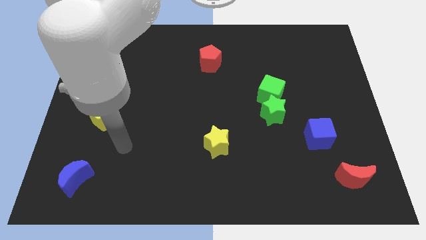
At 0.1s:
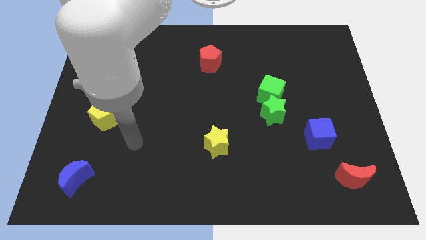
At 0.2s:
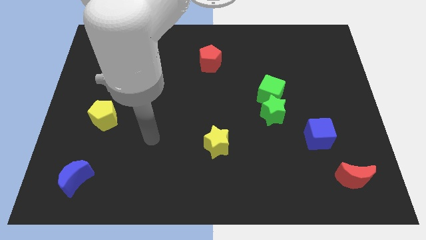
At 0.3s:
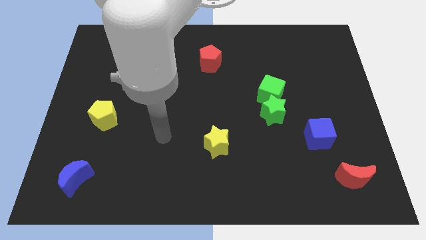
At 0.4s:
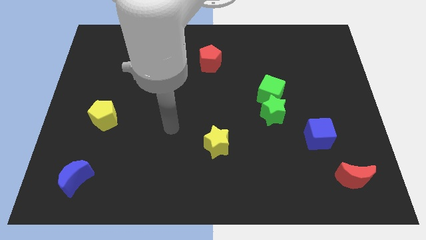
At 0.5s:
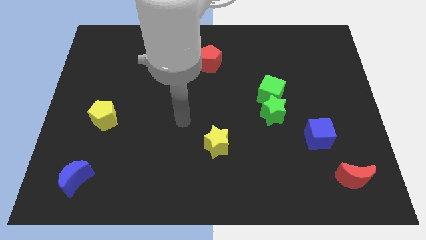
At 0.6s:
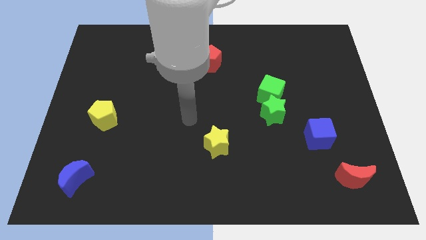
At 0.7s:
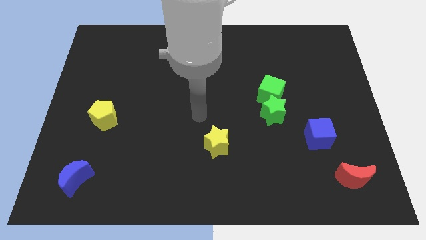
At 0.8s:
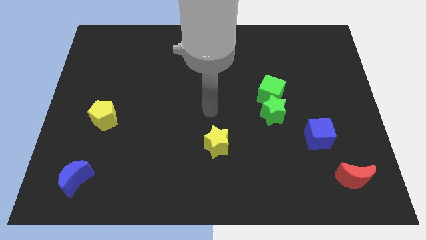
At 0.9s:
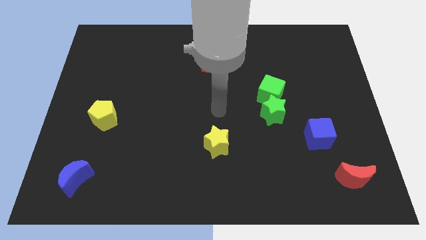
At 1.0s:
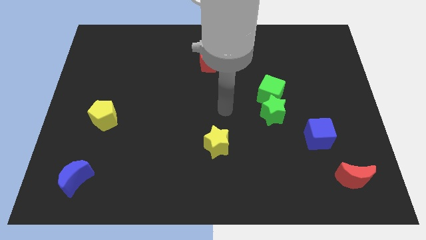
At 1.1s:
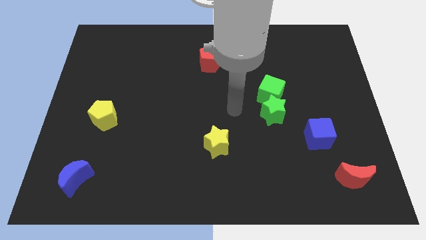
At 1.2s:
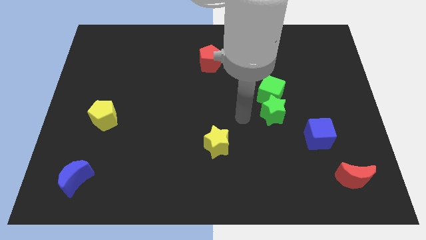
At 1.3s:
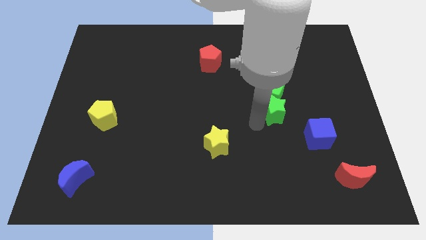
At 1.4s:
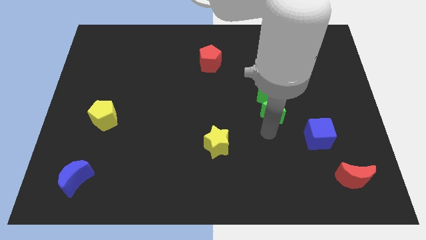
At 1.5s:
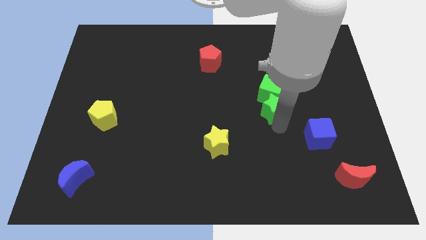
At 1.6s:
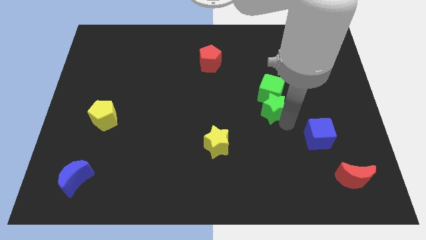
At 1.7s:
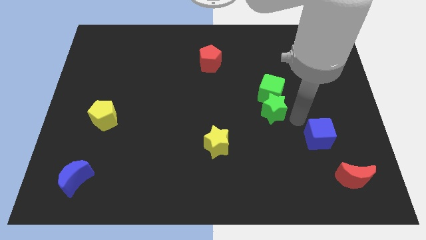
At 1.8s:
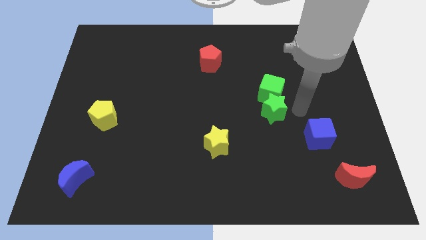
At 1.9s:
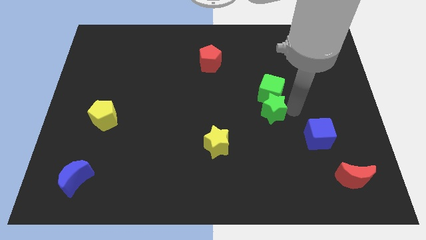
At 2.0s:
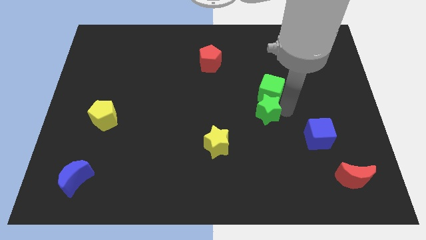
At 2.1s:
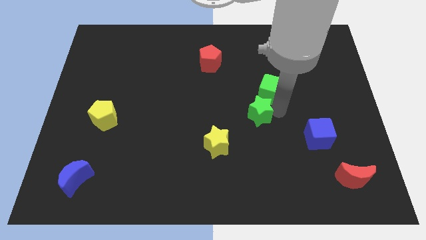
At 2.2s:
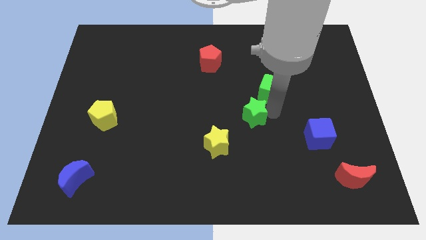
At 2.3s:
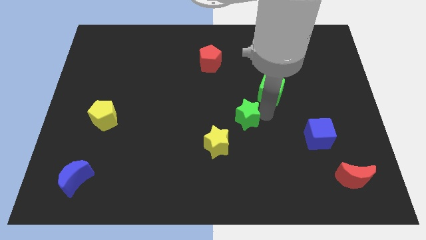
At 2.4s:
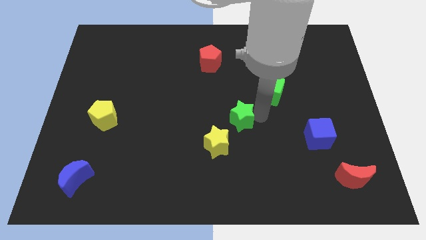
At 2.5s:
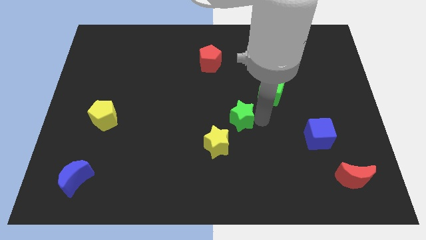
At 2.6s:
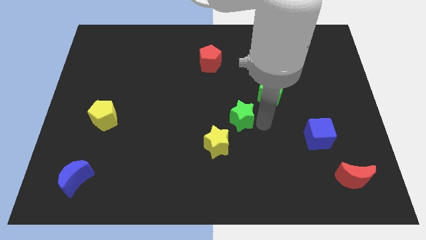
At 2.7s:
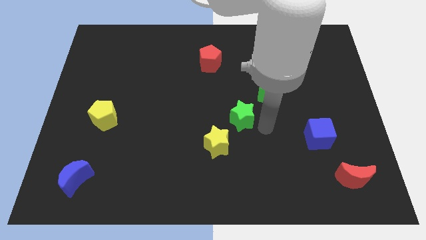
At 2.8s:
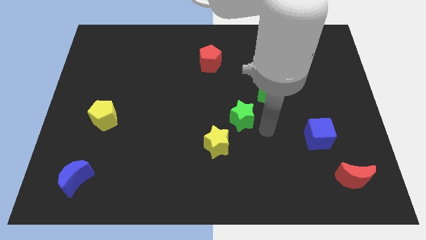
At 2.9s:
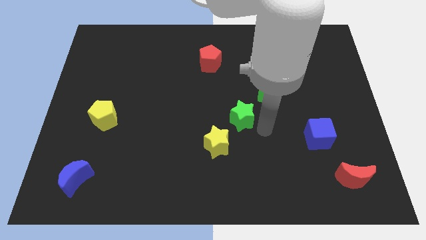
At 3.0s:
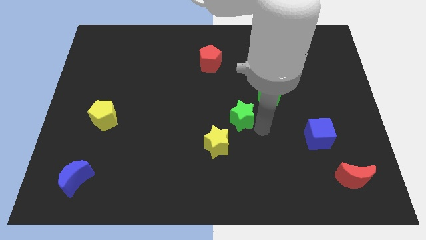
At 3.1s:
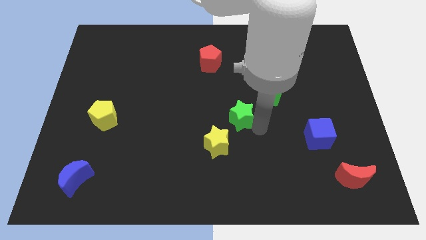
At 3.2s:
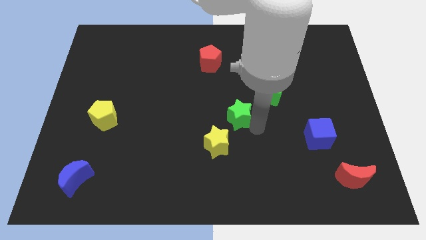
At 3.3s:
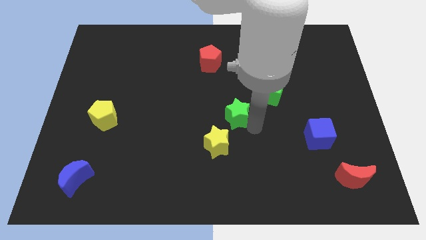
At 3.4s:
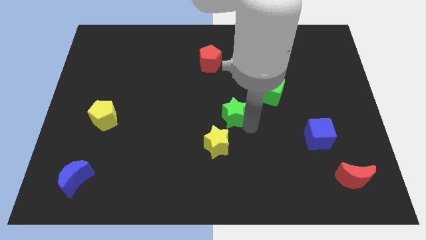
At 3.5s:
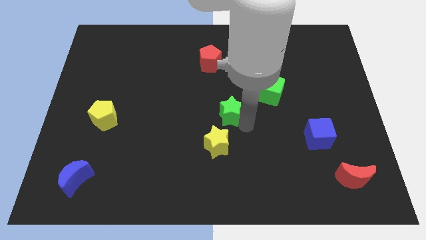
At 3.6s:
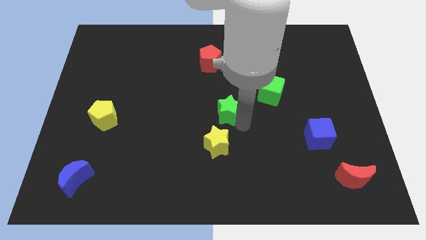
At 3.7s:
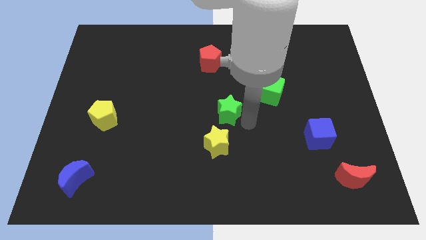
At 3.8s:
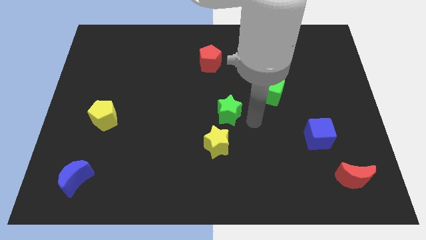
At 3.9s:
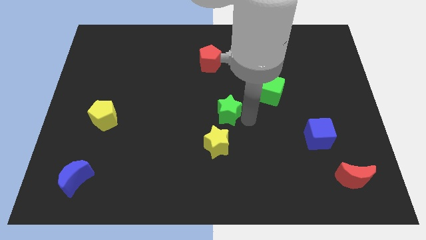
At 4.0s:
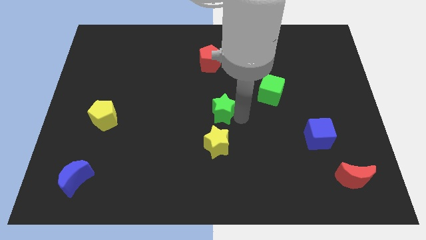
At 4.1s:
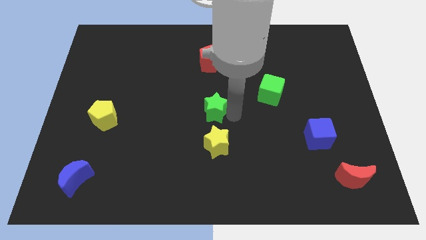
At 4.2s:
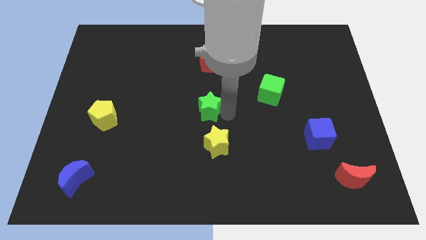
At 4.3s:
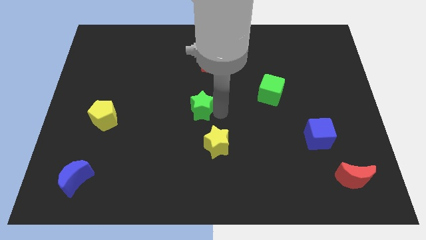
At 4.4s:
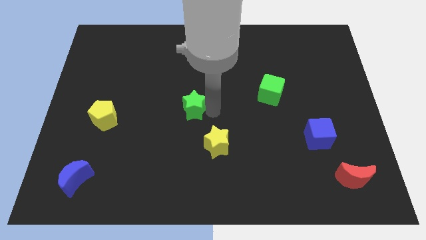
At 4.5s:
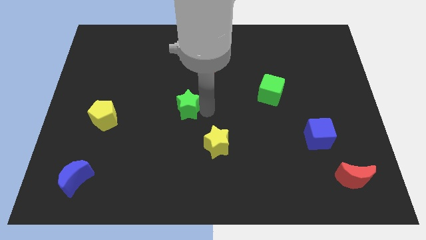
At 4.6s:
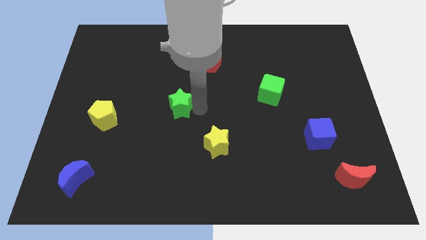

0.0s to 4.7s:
push the green star to the left

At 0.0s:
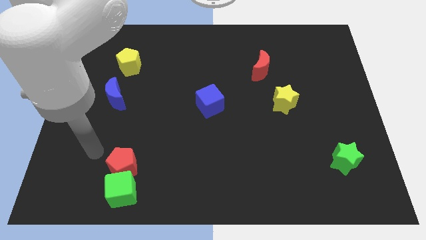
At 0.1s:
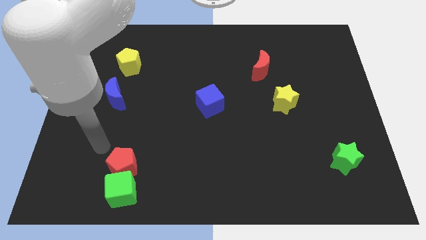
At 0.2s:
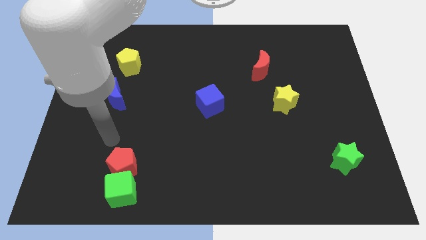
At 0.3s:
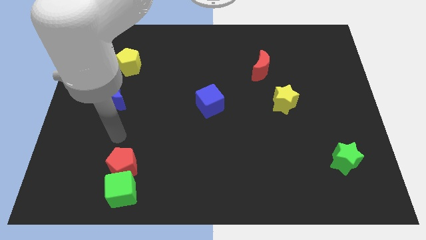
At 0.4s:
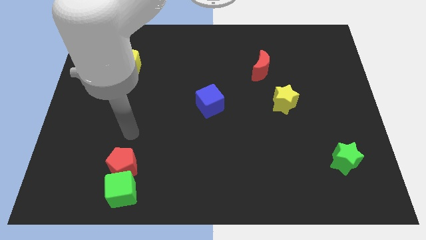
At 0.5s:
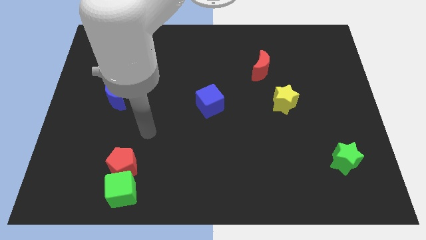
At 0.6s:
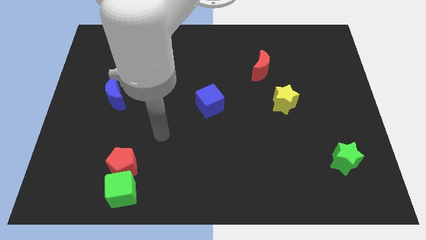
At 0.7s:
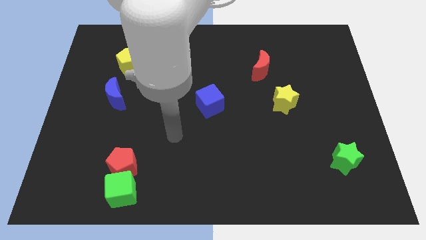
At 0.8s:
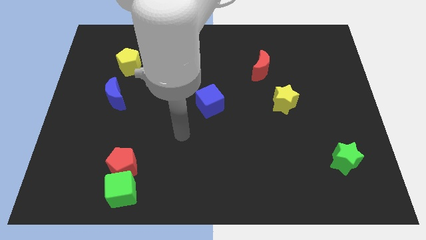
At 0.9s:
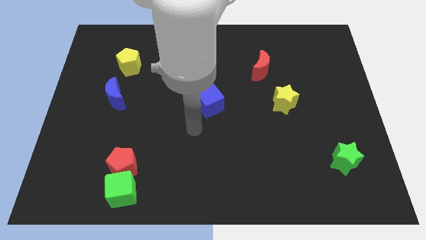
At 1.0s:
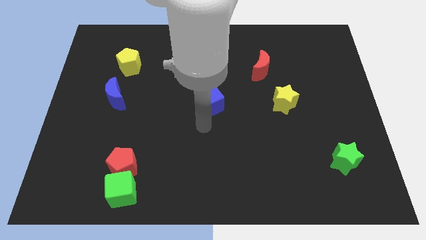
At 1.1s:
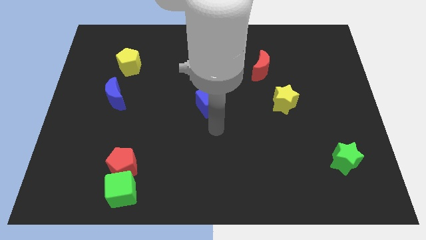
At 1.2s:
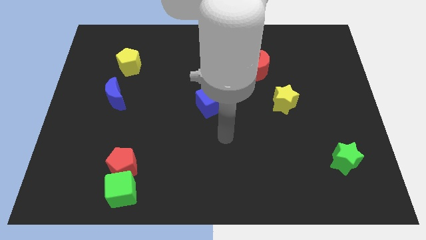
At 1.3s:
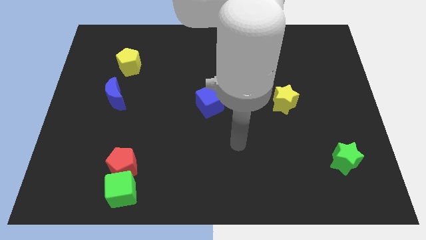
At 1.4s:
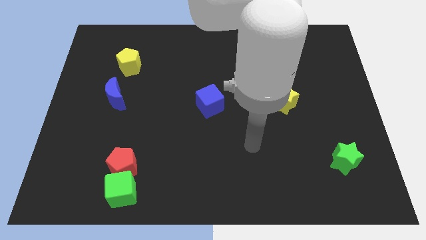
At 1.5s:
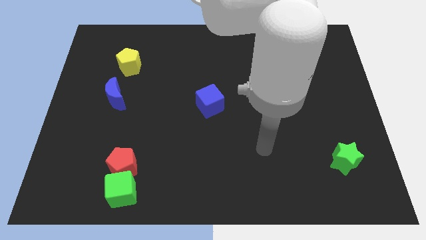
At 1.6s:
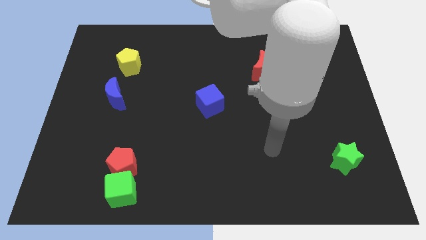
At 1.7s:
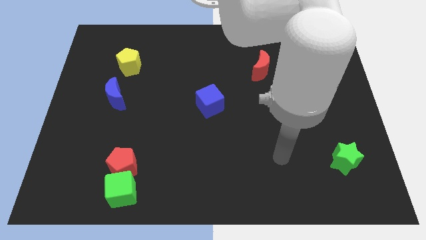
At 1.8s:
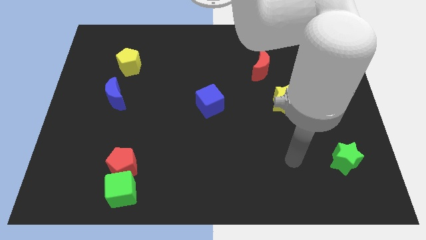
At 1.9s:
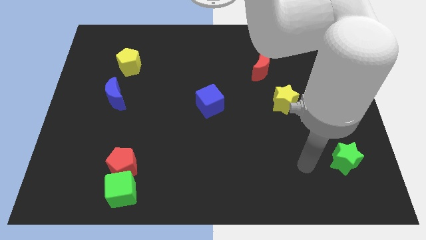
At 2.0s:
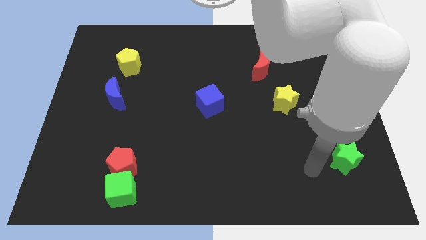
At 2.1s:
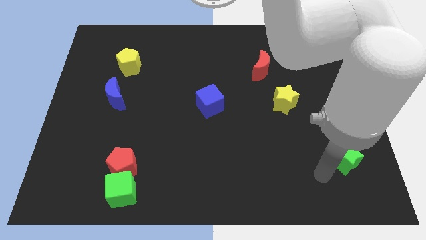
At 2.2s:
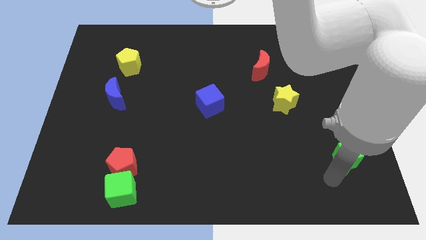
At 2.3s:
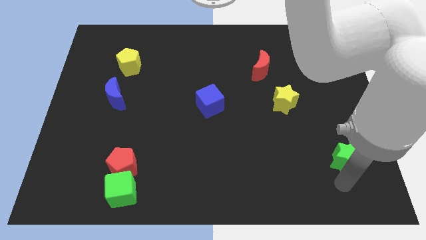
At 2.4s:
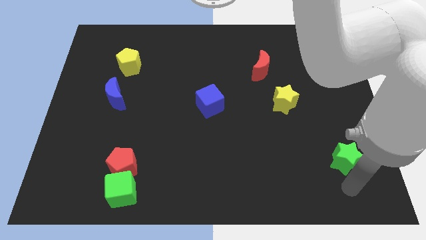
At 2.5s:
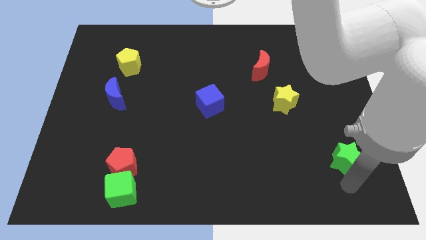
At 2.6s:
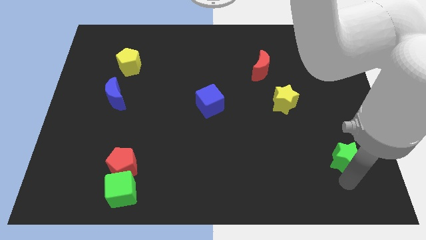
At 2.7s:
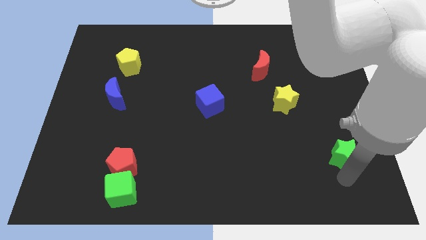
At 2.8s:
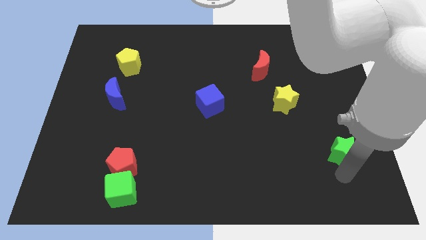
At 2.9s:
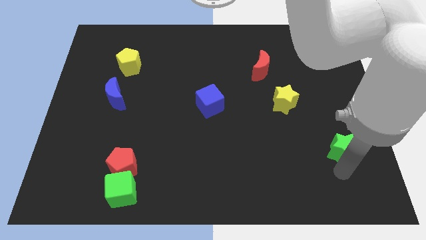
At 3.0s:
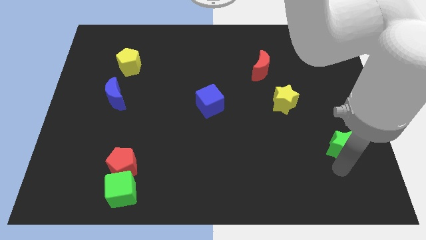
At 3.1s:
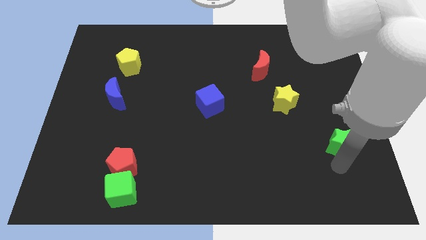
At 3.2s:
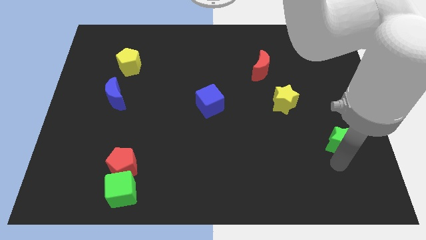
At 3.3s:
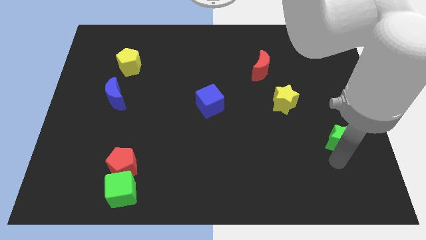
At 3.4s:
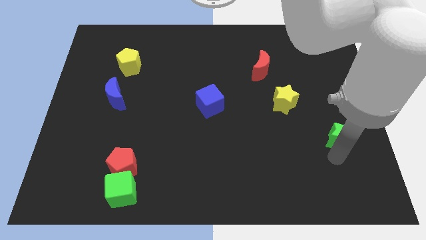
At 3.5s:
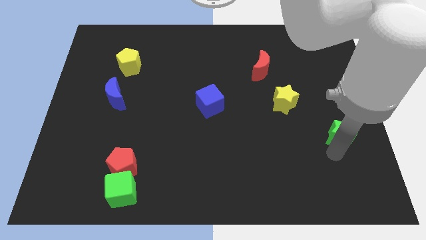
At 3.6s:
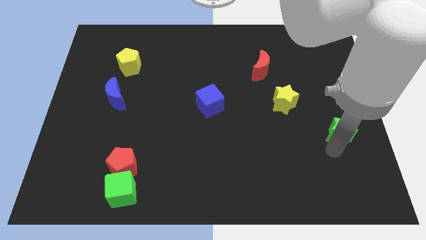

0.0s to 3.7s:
slide the green star somewhat upwards
